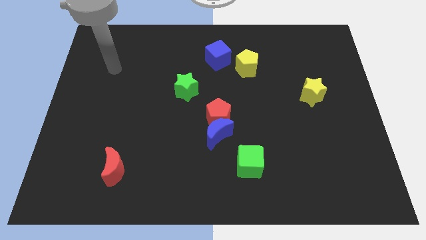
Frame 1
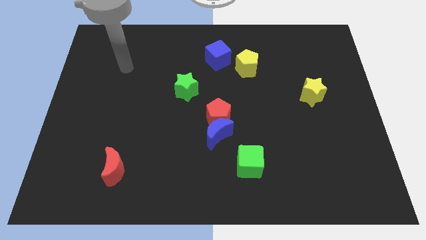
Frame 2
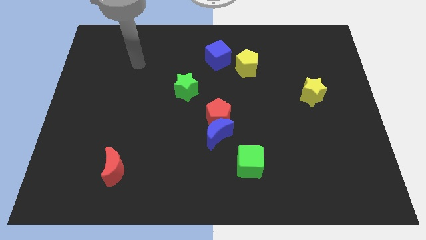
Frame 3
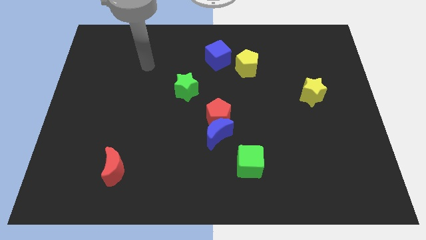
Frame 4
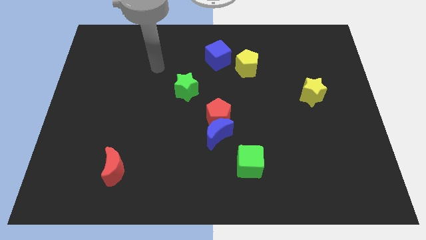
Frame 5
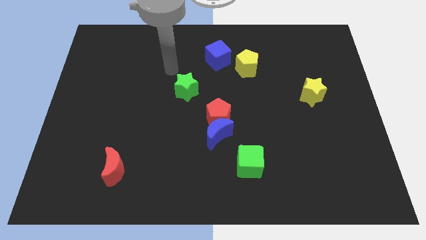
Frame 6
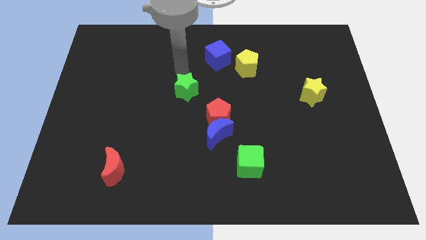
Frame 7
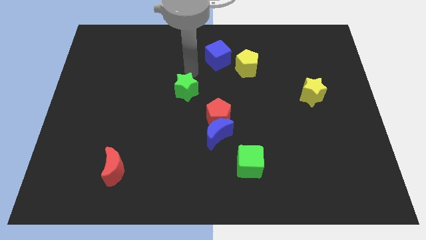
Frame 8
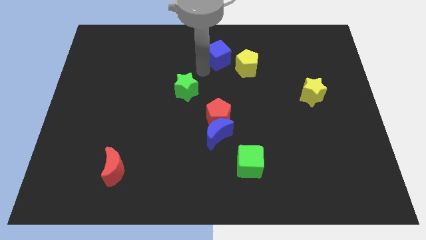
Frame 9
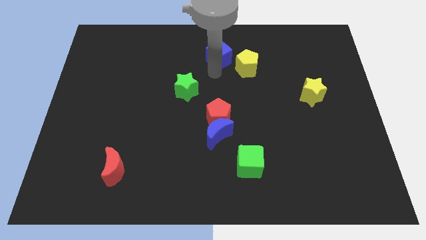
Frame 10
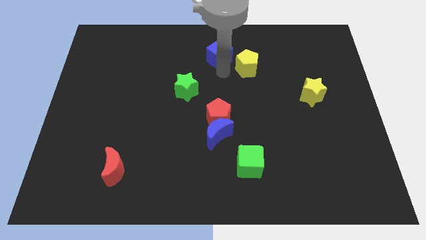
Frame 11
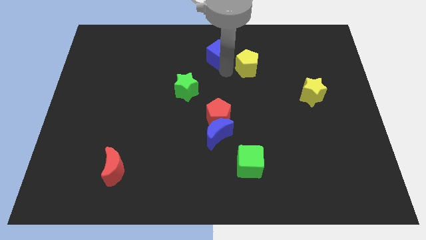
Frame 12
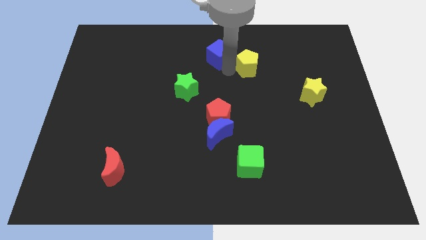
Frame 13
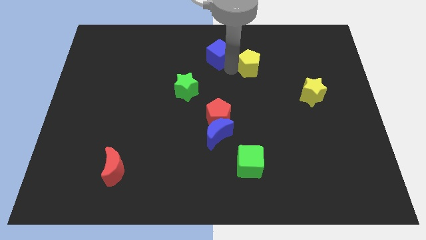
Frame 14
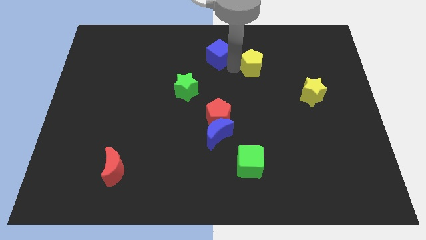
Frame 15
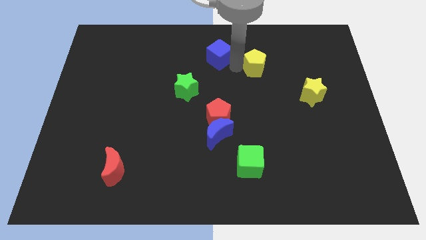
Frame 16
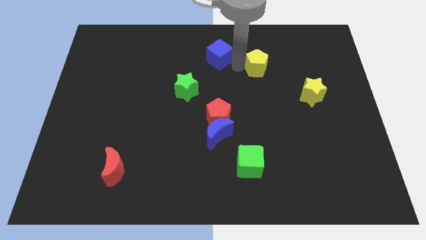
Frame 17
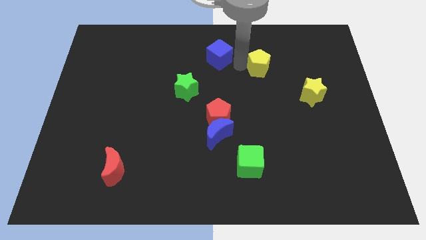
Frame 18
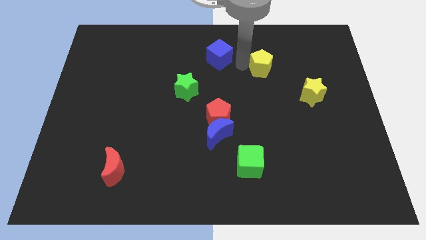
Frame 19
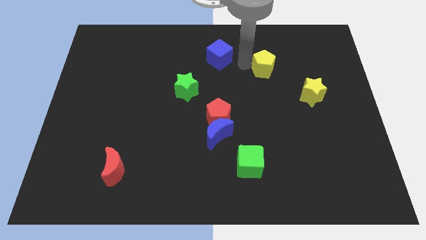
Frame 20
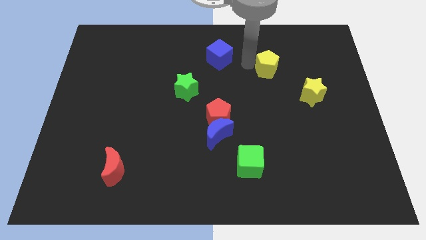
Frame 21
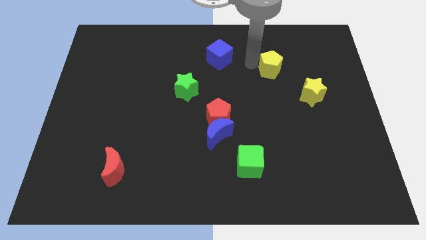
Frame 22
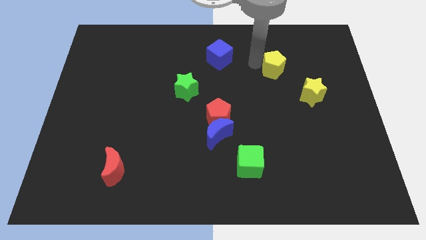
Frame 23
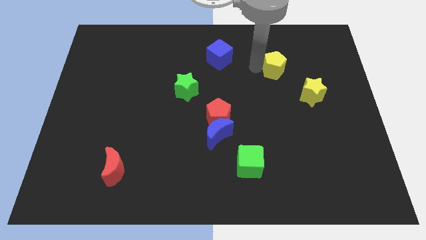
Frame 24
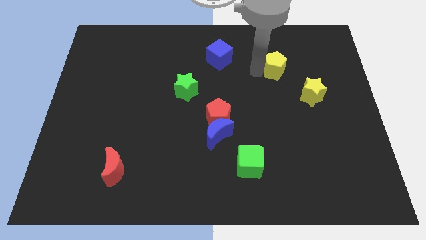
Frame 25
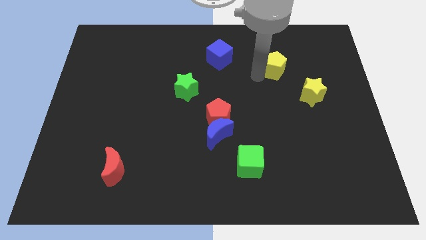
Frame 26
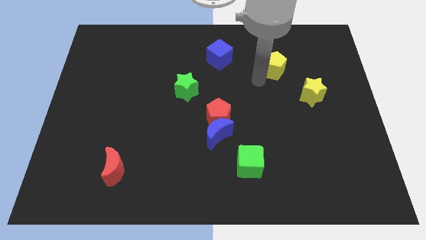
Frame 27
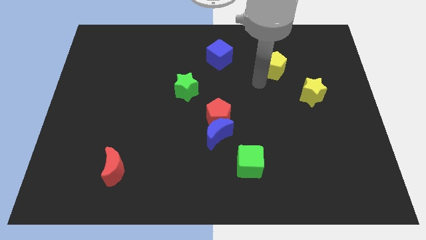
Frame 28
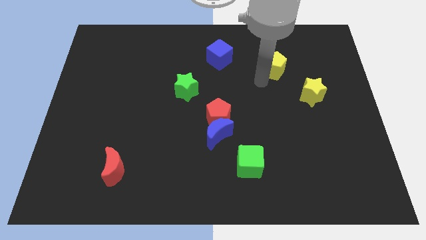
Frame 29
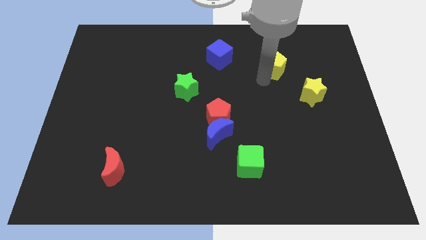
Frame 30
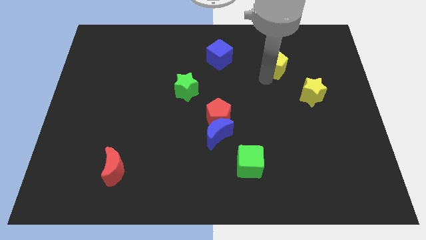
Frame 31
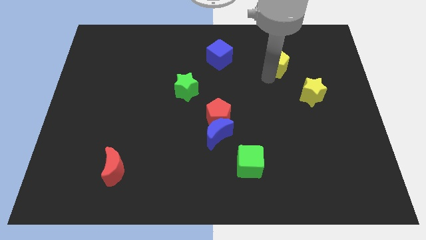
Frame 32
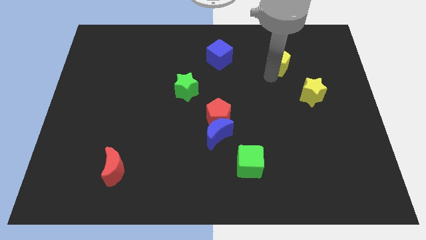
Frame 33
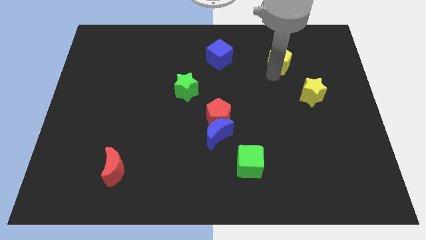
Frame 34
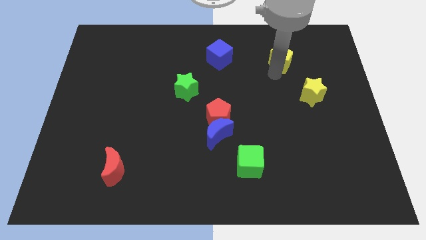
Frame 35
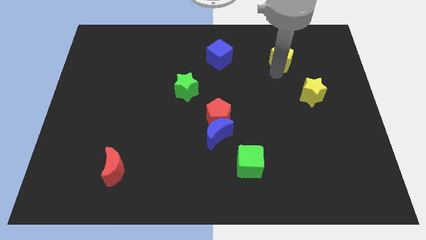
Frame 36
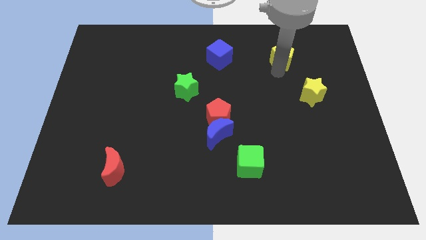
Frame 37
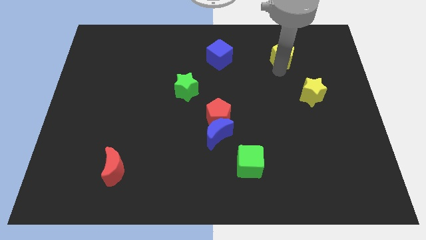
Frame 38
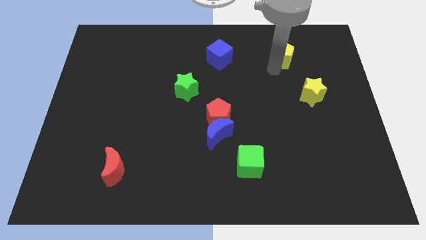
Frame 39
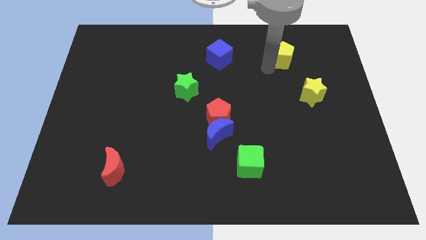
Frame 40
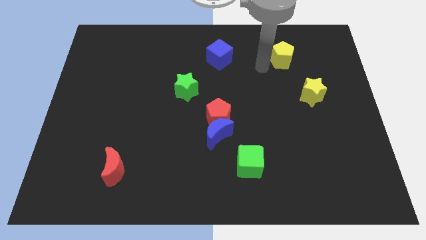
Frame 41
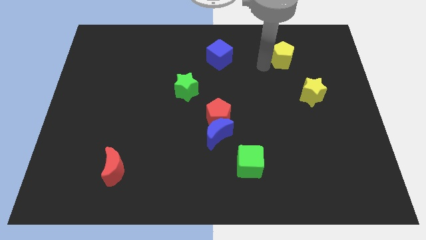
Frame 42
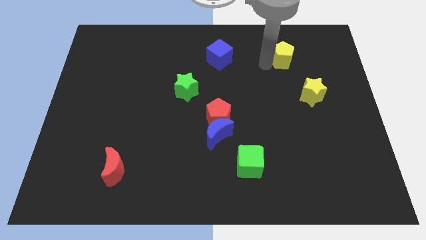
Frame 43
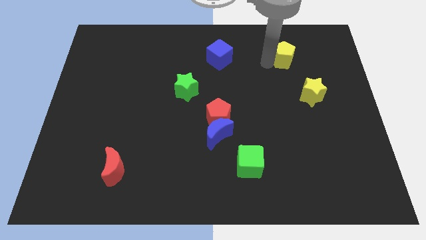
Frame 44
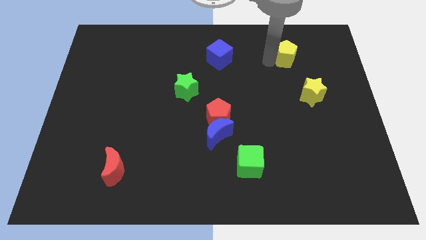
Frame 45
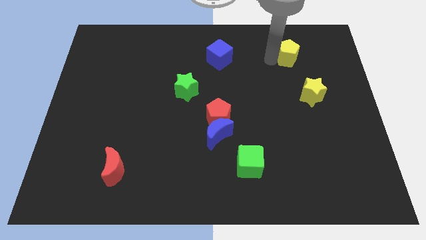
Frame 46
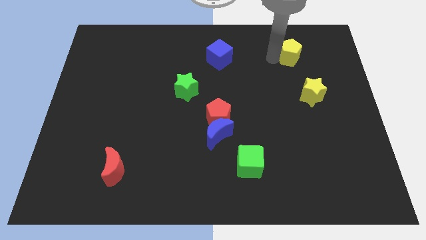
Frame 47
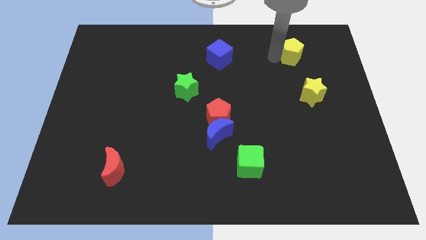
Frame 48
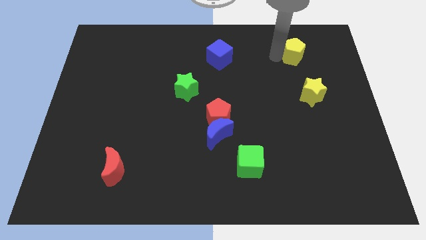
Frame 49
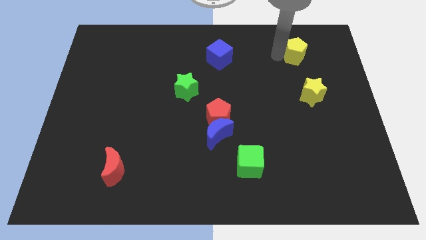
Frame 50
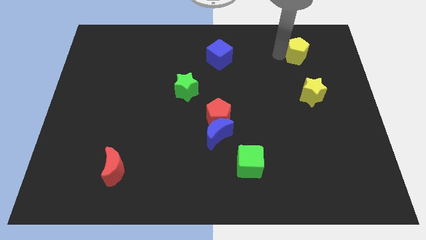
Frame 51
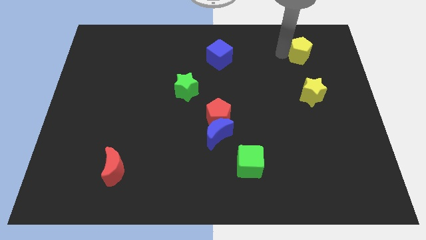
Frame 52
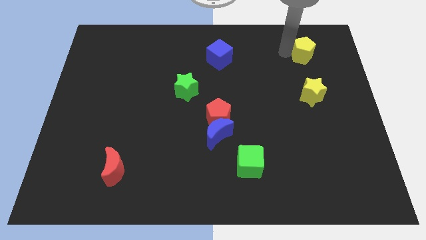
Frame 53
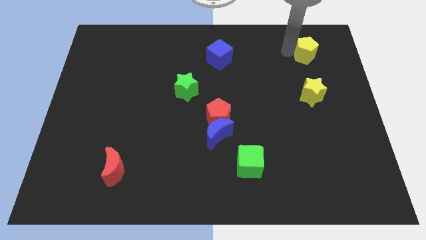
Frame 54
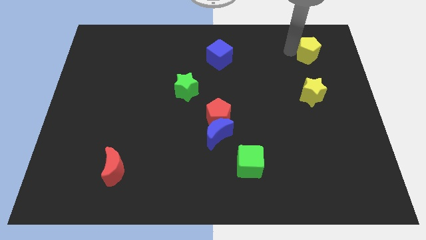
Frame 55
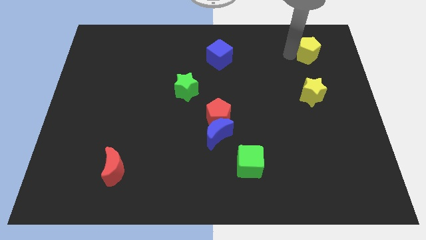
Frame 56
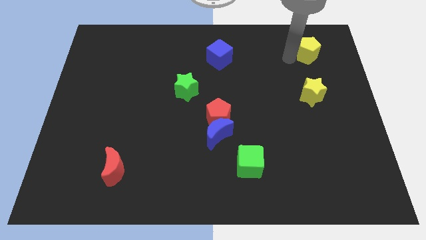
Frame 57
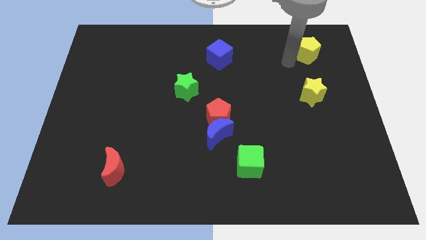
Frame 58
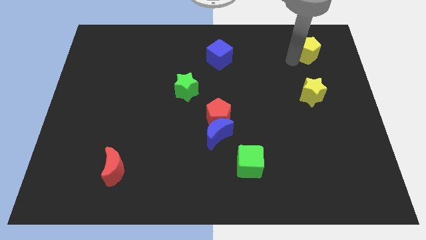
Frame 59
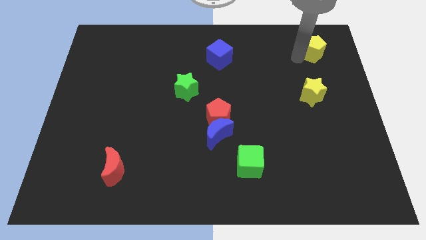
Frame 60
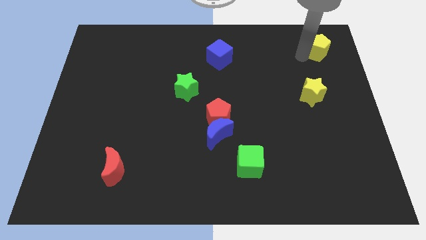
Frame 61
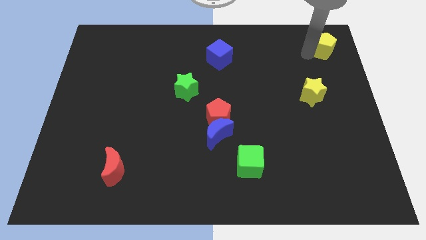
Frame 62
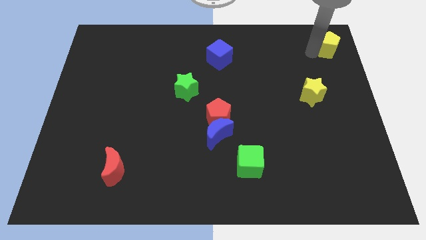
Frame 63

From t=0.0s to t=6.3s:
move the yellow pentagon to the top right corner

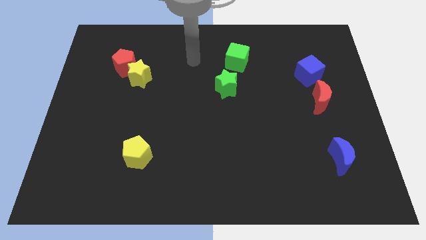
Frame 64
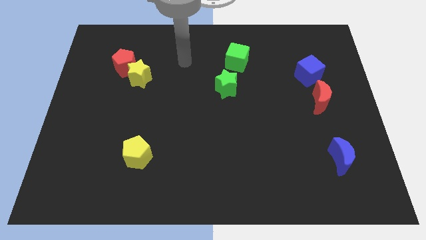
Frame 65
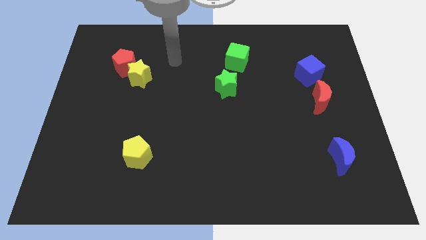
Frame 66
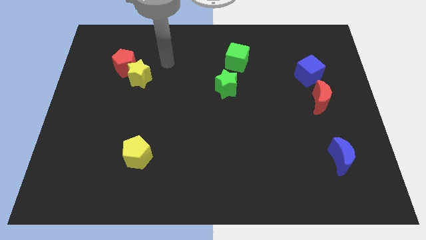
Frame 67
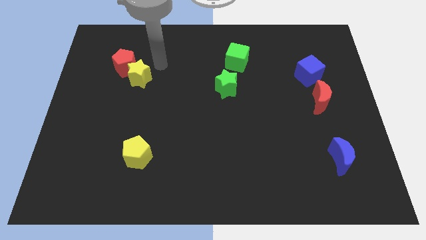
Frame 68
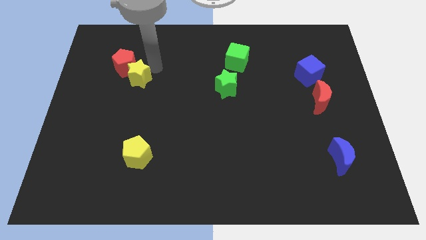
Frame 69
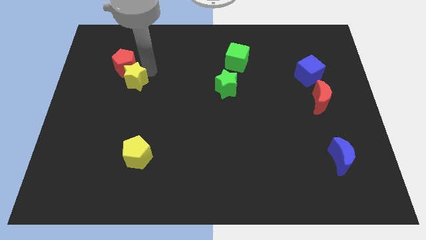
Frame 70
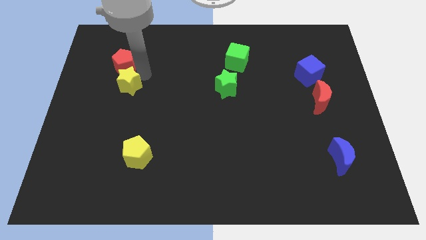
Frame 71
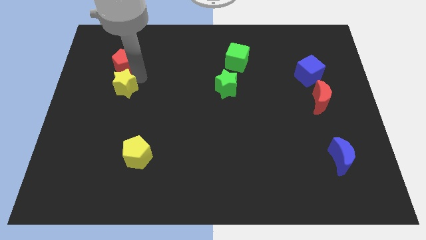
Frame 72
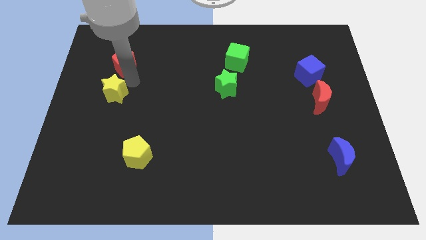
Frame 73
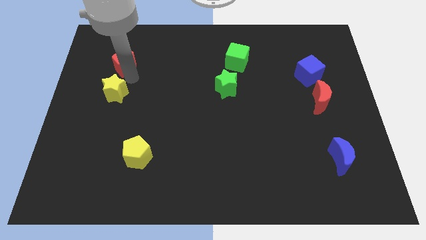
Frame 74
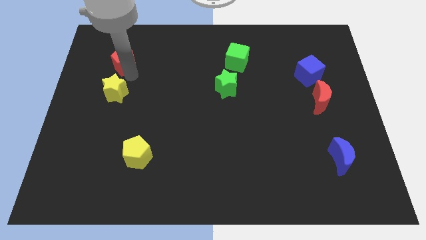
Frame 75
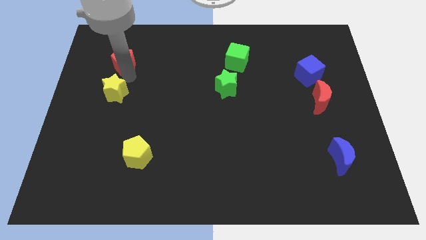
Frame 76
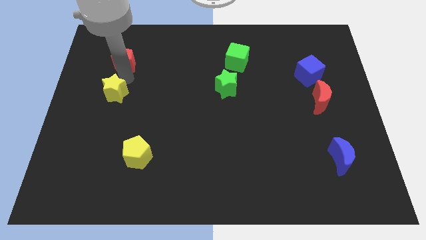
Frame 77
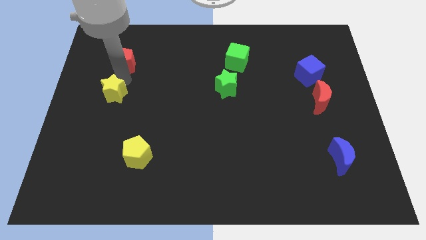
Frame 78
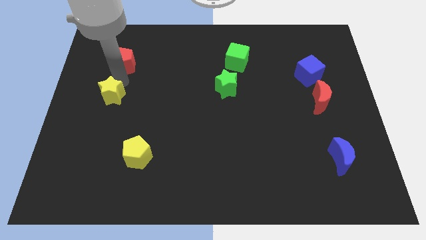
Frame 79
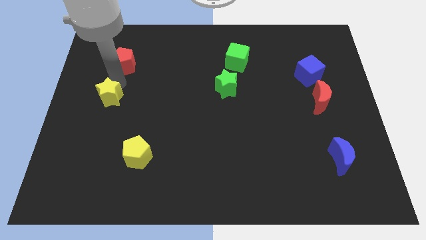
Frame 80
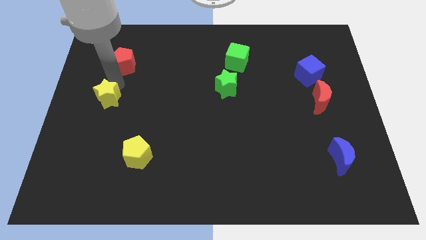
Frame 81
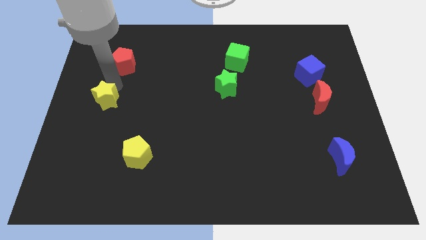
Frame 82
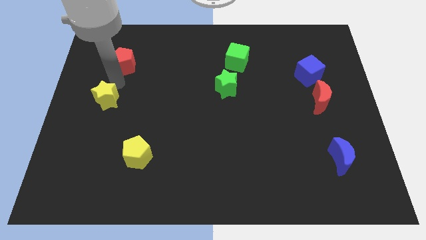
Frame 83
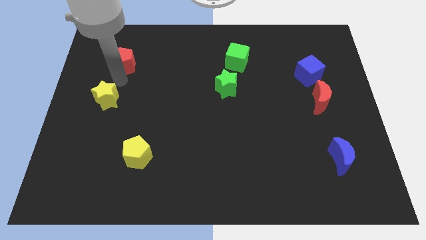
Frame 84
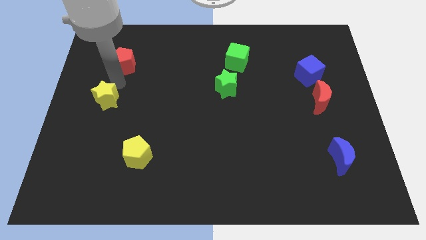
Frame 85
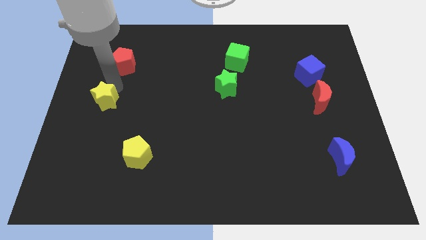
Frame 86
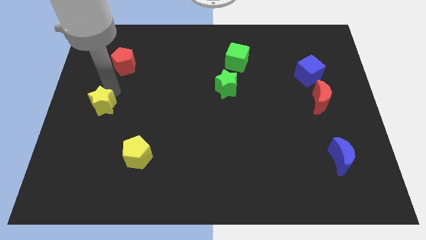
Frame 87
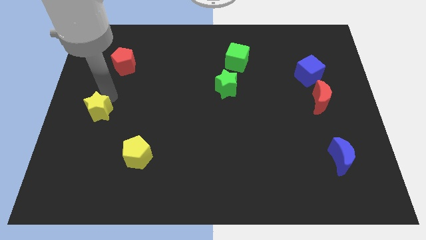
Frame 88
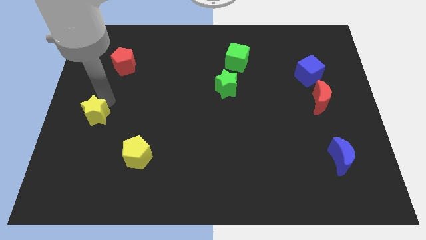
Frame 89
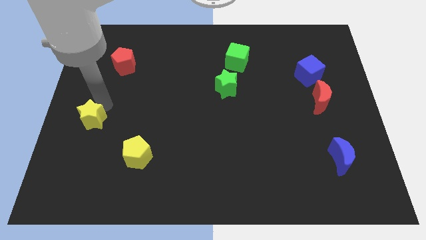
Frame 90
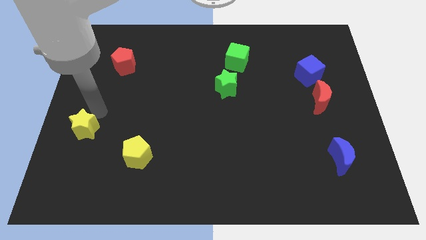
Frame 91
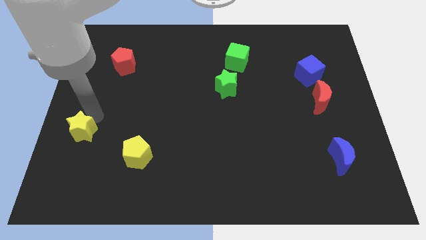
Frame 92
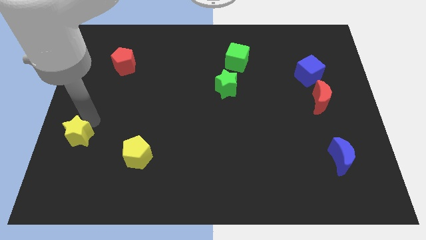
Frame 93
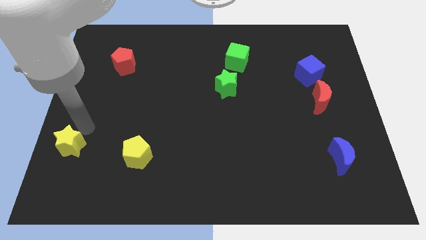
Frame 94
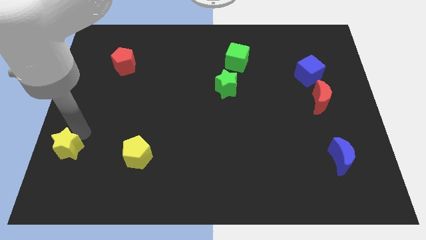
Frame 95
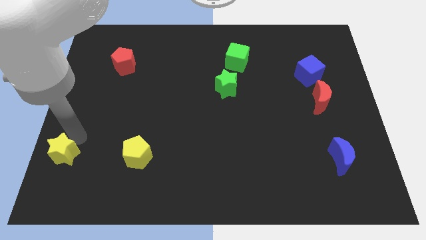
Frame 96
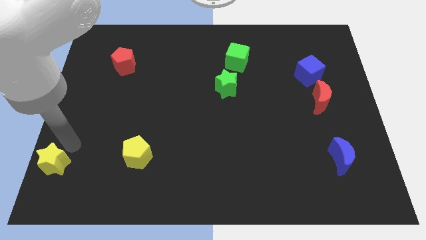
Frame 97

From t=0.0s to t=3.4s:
put the yellow star to the bottom left of the board
